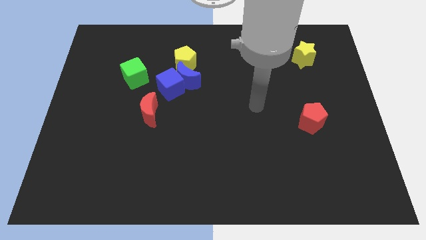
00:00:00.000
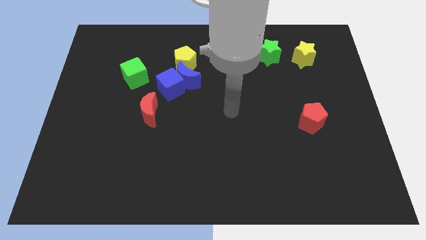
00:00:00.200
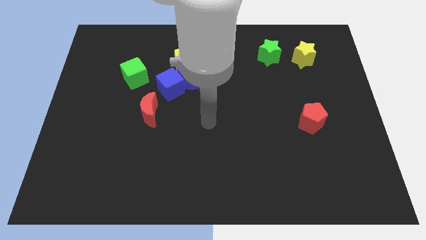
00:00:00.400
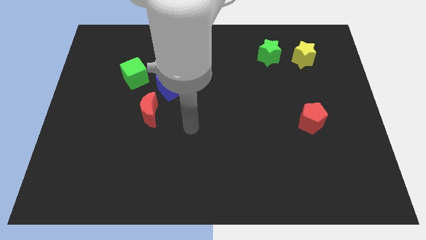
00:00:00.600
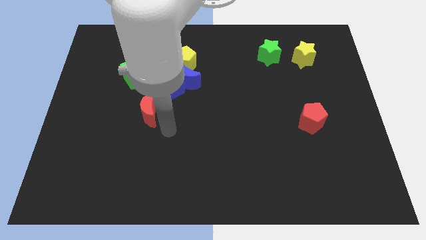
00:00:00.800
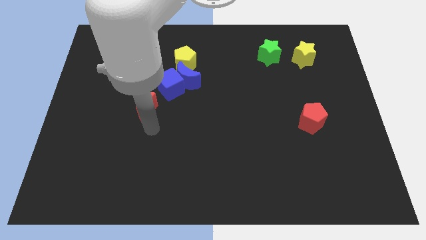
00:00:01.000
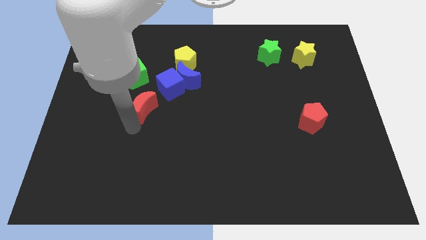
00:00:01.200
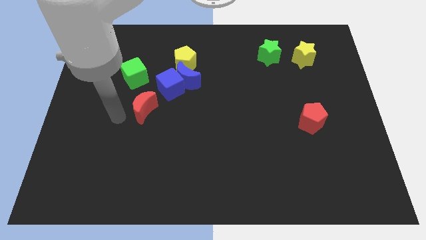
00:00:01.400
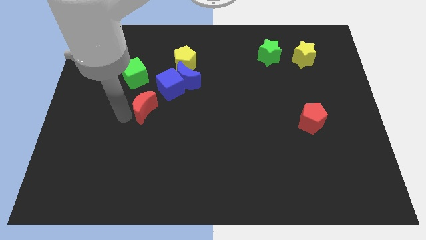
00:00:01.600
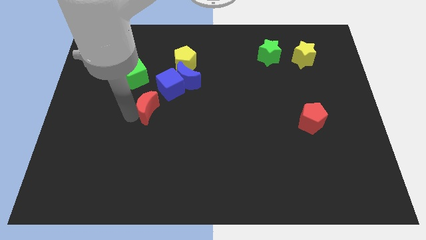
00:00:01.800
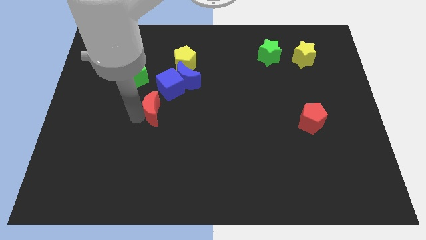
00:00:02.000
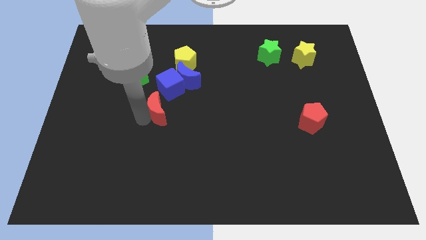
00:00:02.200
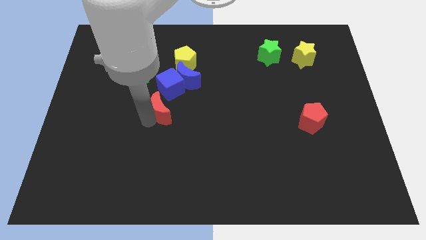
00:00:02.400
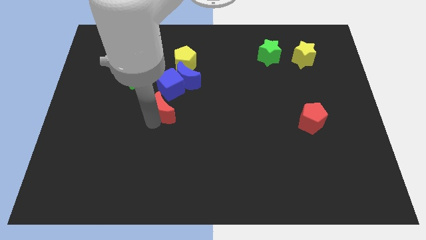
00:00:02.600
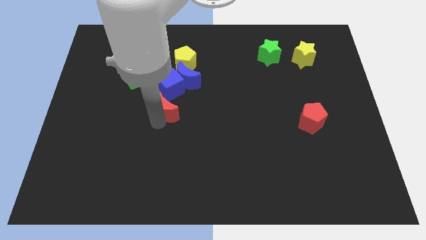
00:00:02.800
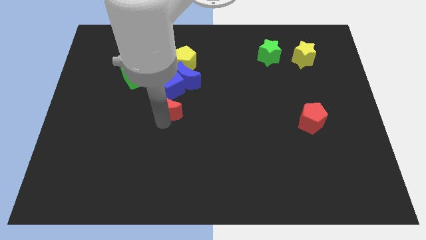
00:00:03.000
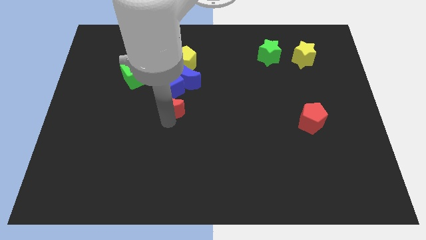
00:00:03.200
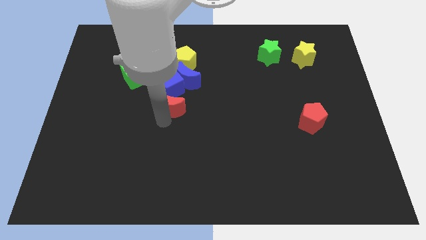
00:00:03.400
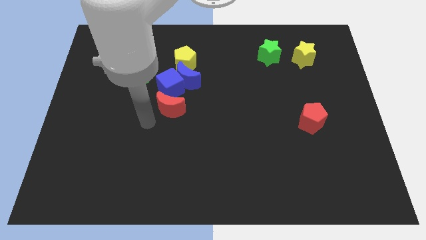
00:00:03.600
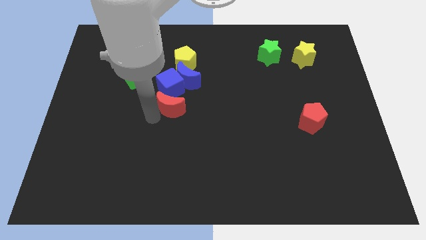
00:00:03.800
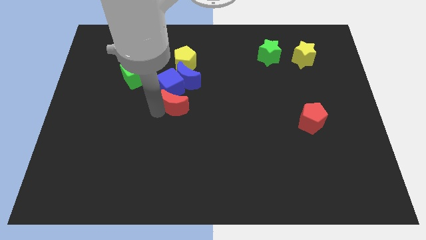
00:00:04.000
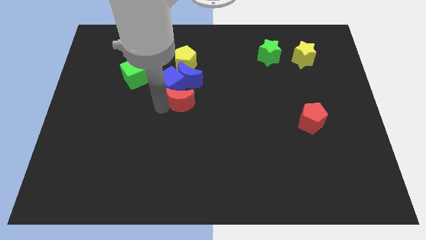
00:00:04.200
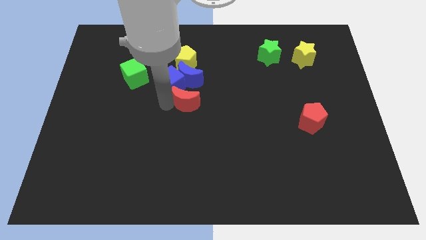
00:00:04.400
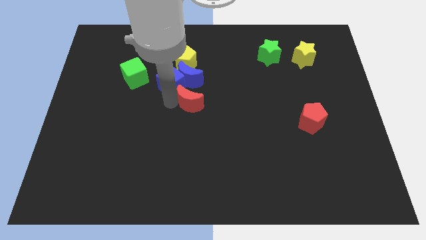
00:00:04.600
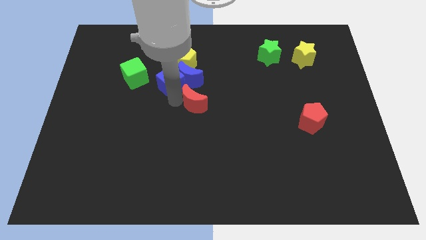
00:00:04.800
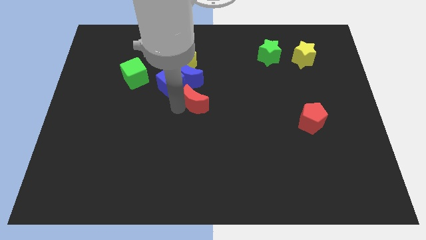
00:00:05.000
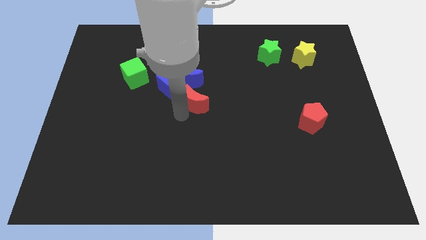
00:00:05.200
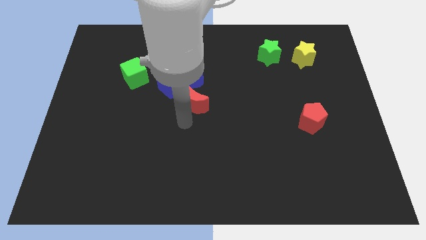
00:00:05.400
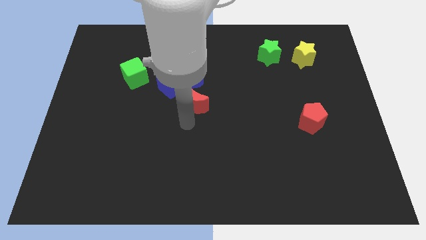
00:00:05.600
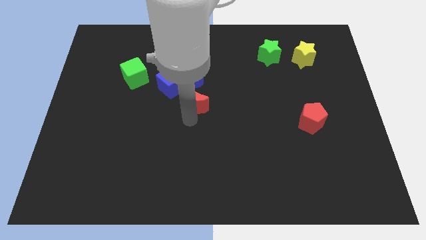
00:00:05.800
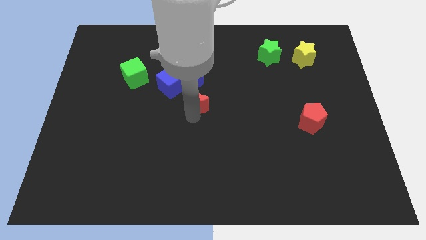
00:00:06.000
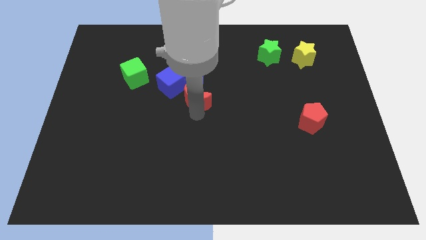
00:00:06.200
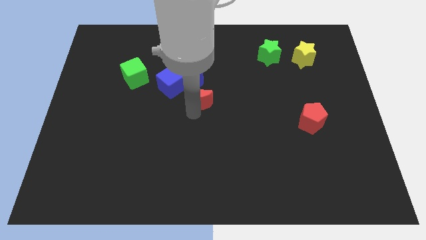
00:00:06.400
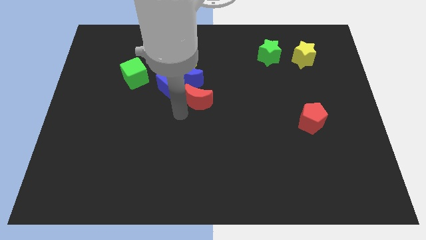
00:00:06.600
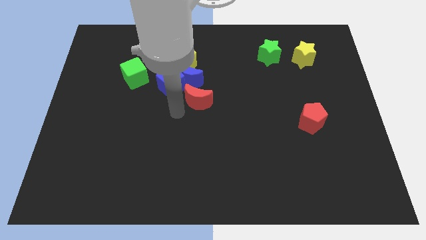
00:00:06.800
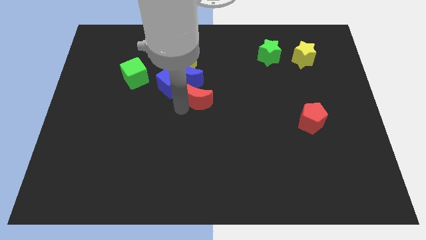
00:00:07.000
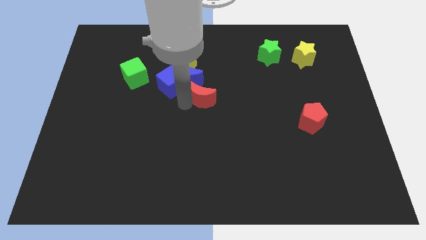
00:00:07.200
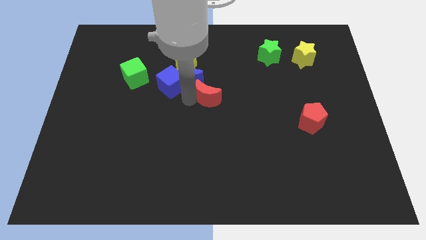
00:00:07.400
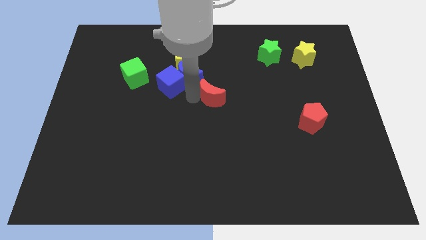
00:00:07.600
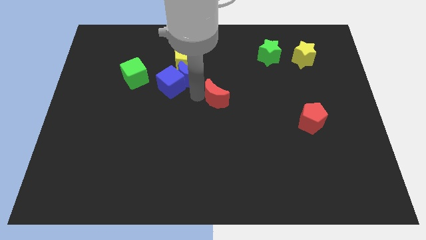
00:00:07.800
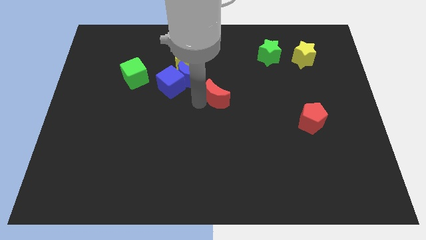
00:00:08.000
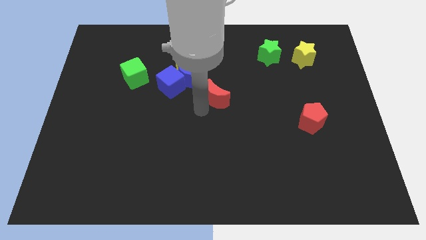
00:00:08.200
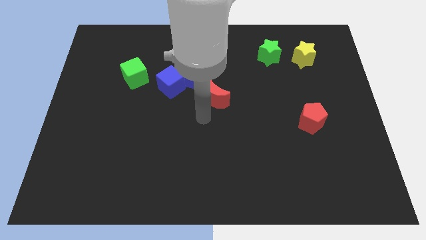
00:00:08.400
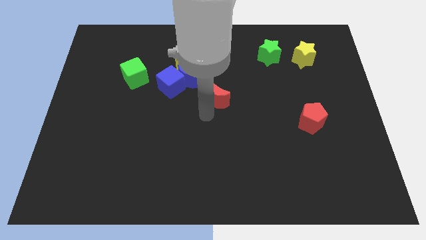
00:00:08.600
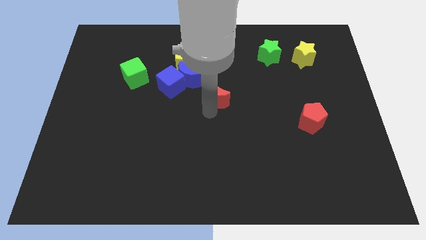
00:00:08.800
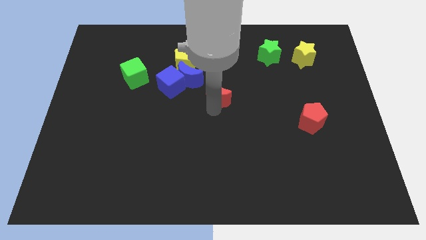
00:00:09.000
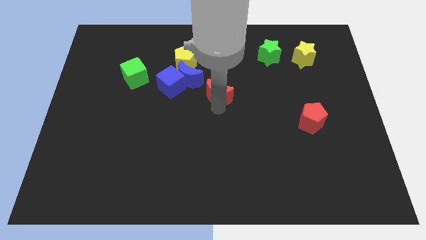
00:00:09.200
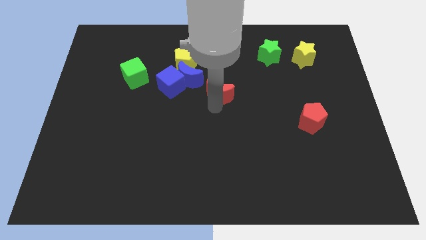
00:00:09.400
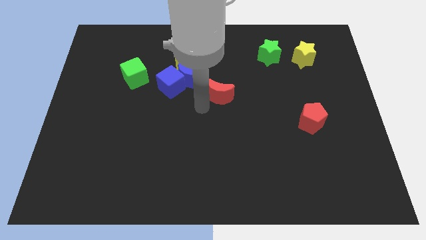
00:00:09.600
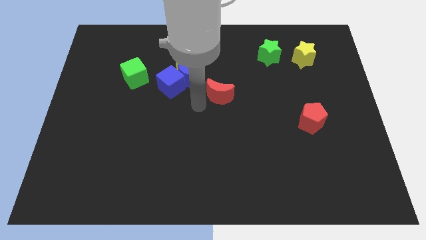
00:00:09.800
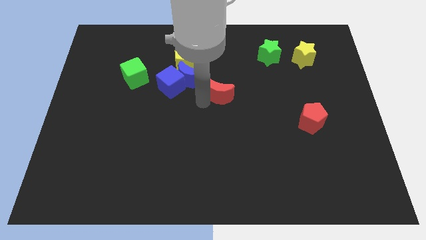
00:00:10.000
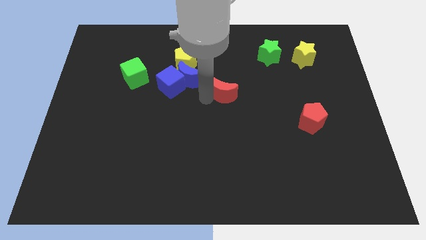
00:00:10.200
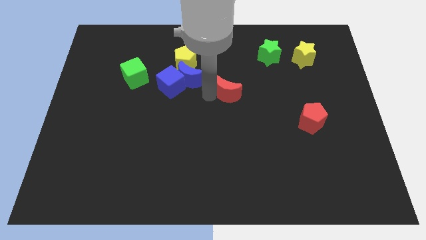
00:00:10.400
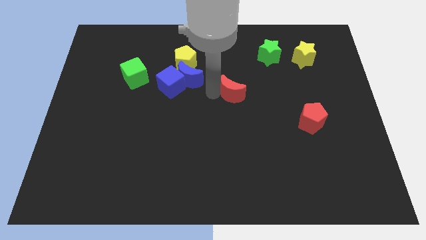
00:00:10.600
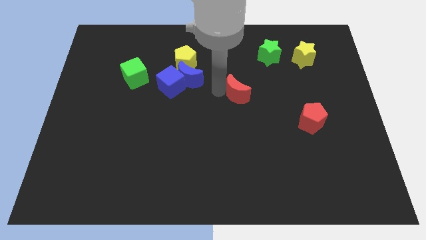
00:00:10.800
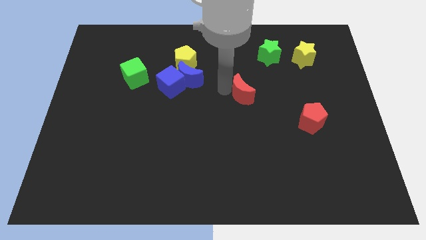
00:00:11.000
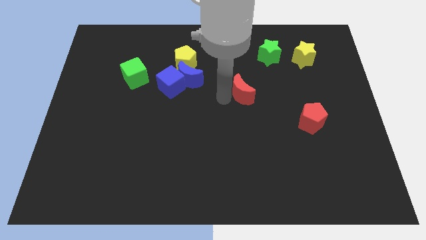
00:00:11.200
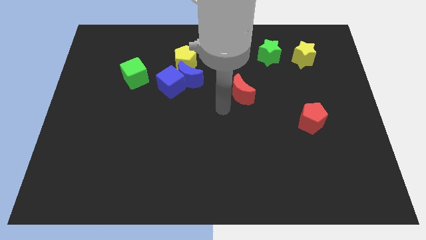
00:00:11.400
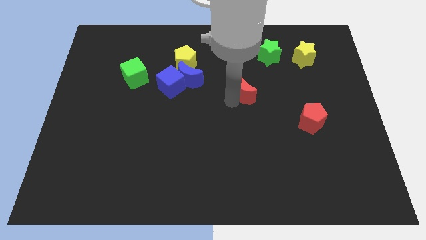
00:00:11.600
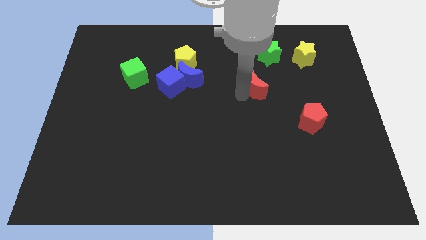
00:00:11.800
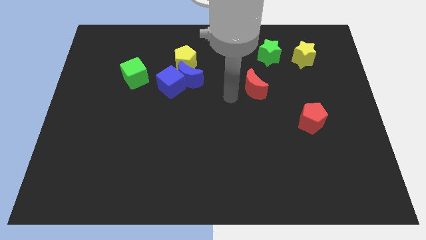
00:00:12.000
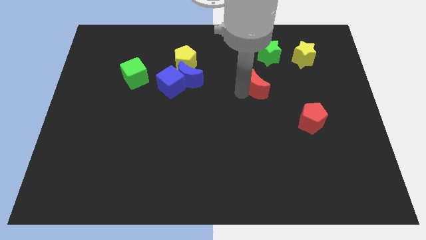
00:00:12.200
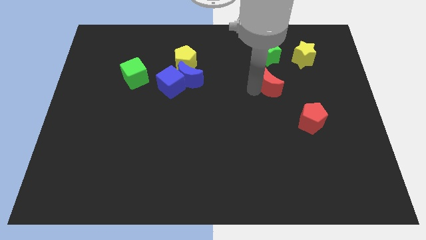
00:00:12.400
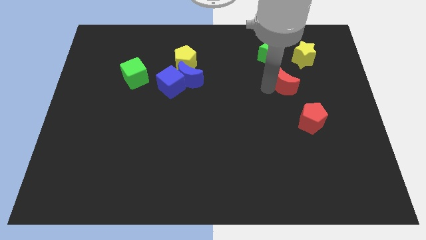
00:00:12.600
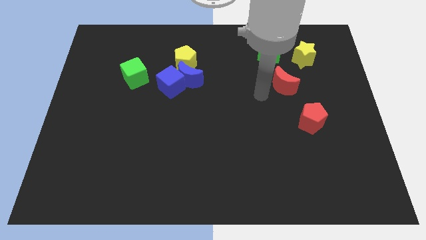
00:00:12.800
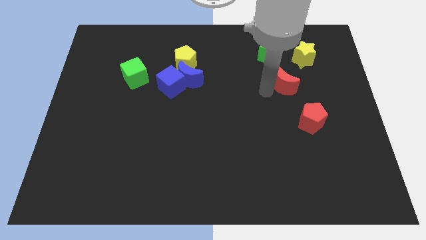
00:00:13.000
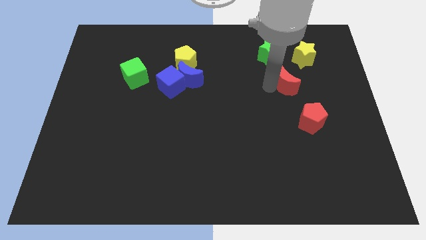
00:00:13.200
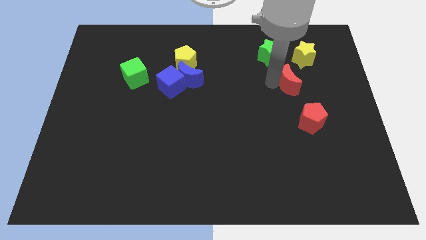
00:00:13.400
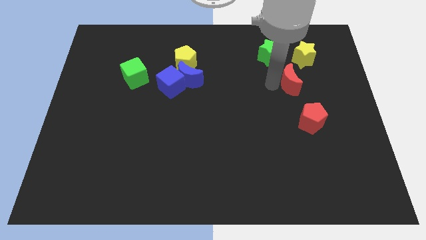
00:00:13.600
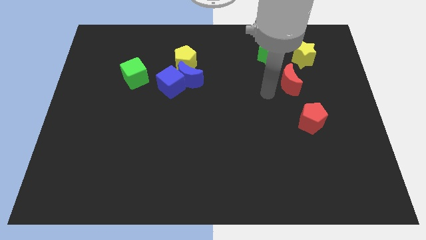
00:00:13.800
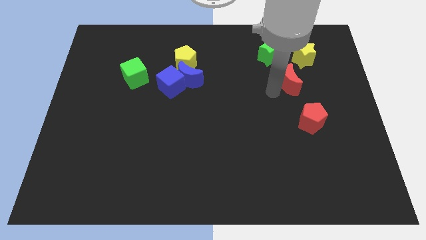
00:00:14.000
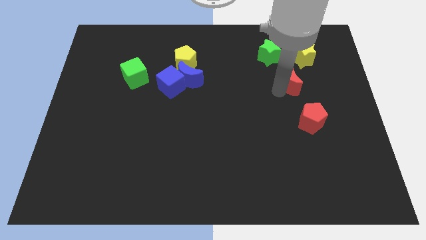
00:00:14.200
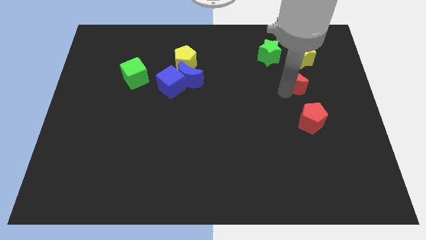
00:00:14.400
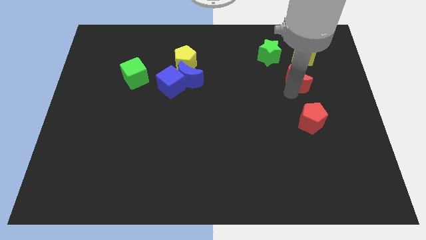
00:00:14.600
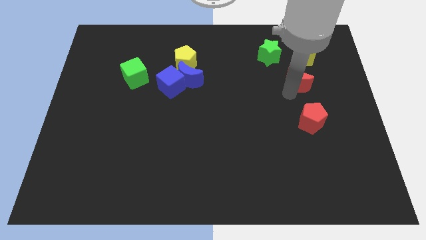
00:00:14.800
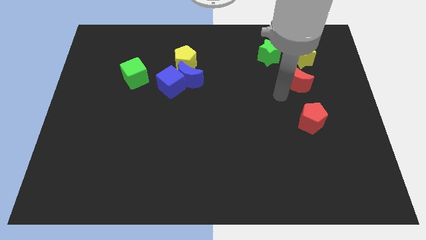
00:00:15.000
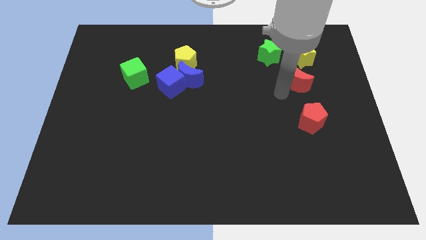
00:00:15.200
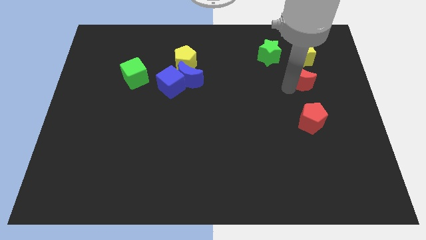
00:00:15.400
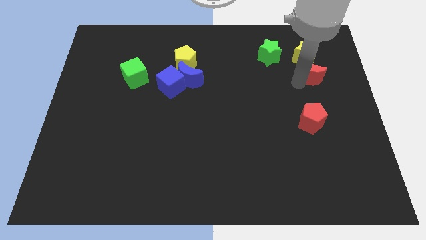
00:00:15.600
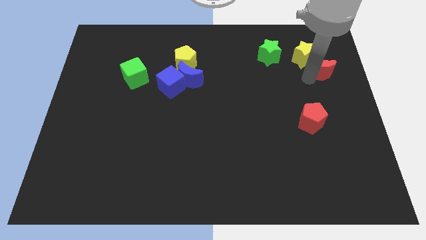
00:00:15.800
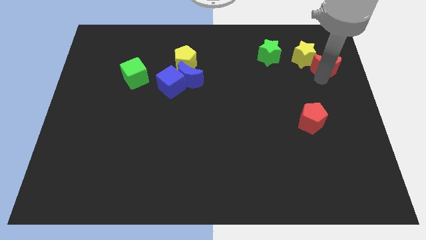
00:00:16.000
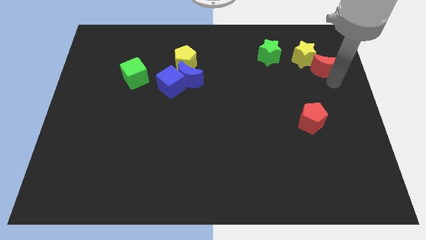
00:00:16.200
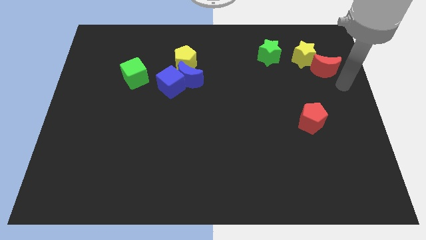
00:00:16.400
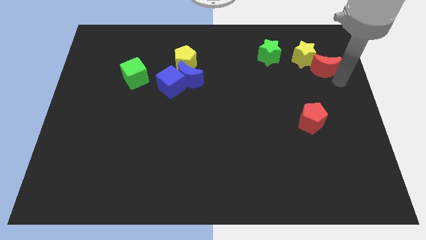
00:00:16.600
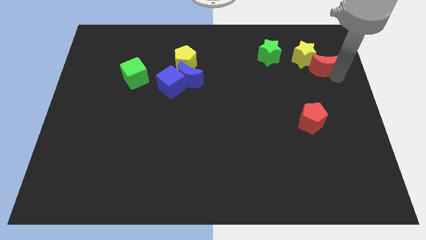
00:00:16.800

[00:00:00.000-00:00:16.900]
slide the red moon to the right side of the green star
